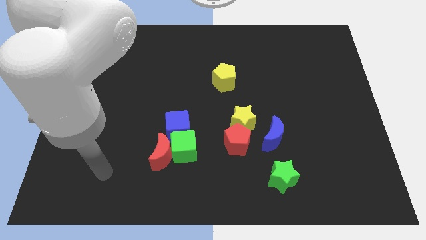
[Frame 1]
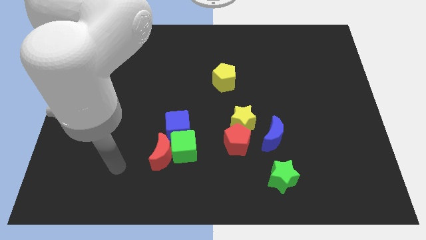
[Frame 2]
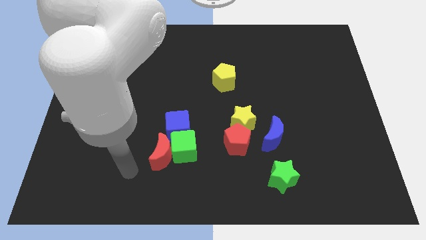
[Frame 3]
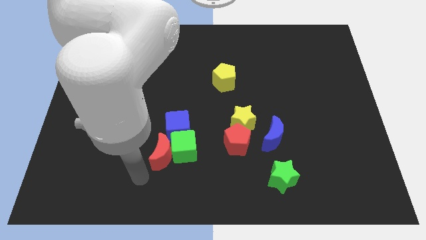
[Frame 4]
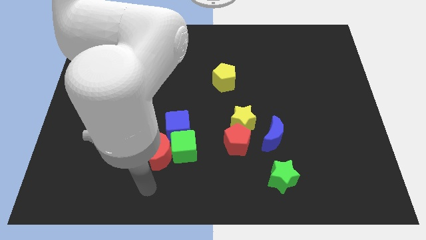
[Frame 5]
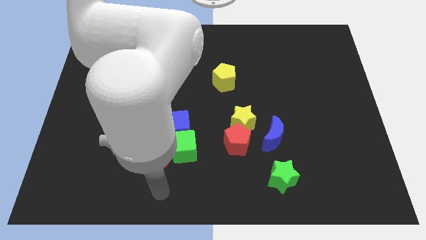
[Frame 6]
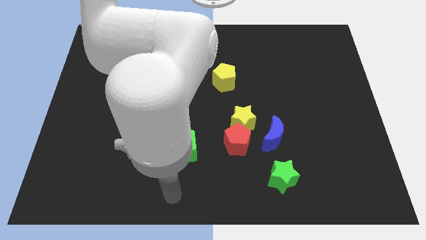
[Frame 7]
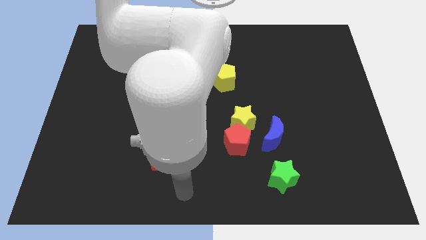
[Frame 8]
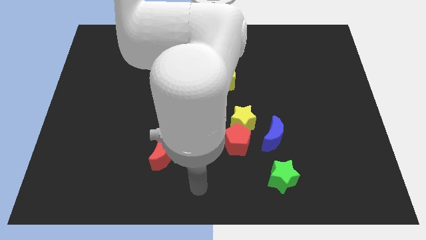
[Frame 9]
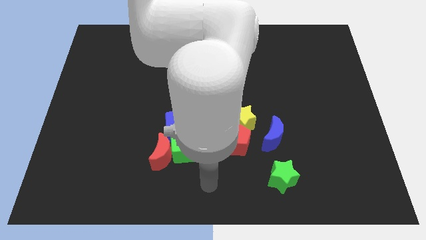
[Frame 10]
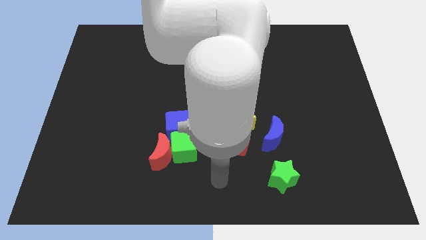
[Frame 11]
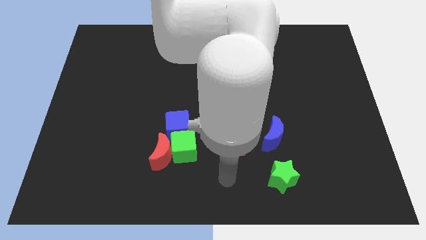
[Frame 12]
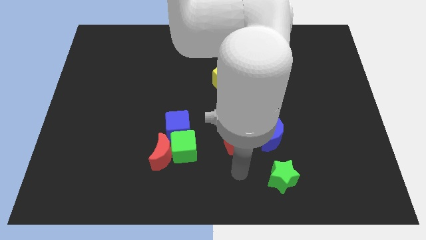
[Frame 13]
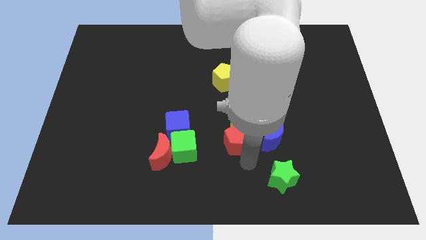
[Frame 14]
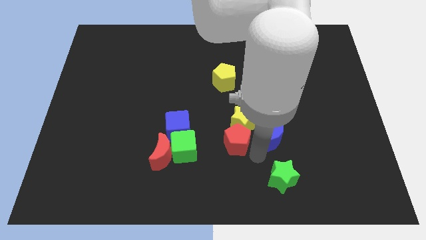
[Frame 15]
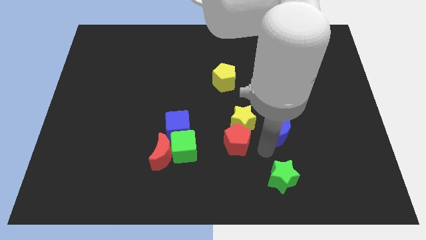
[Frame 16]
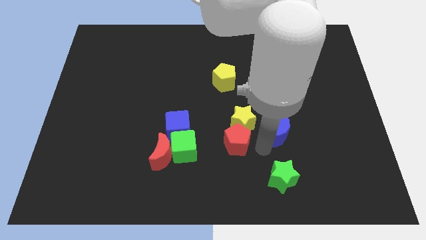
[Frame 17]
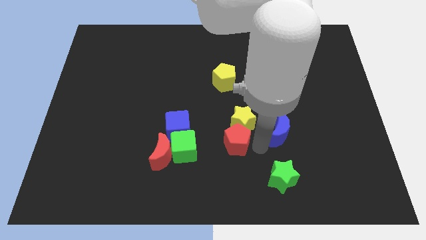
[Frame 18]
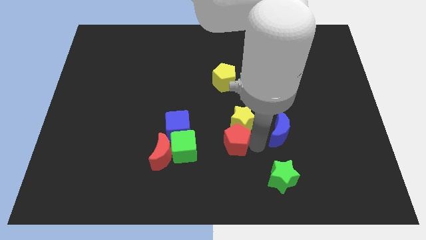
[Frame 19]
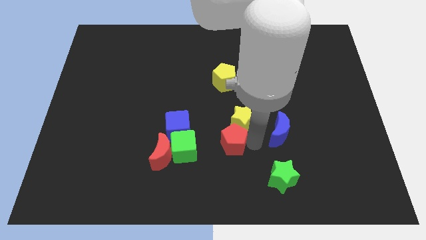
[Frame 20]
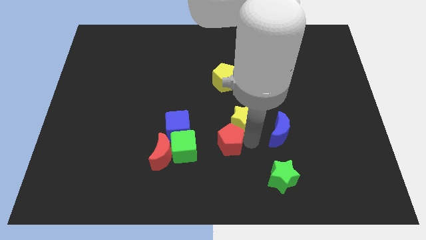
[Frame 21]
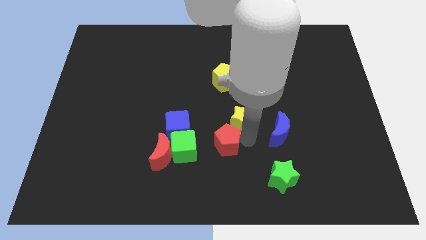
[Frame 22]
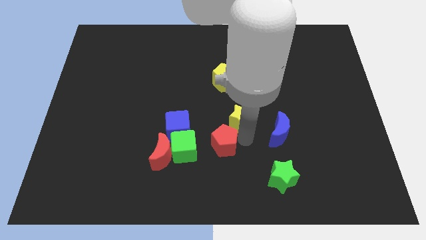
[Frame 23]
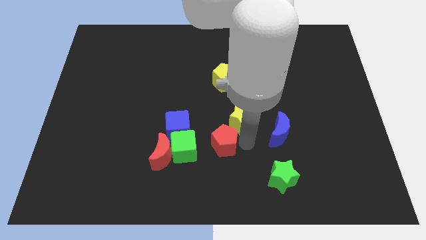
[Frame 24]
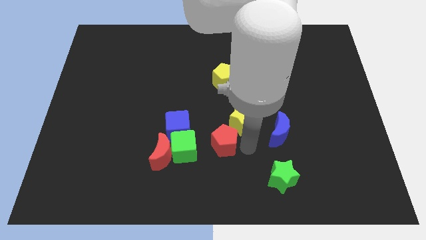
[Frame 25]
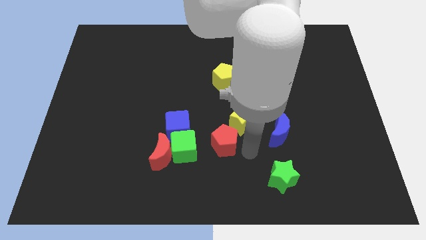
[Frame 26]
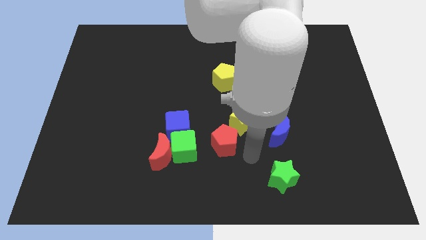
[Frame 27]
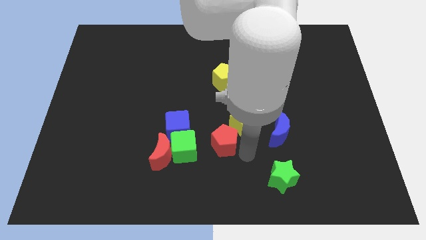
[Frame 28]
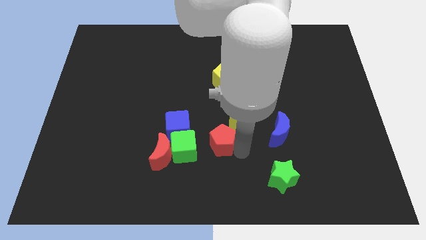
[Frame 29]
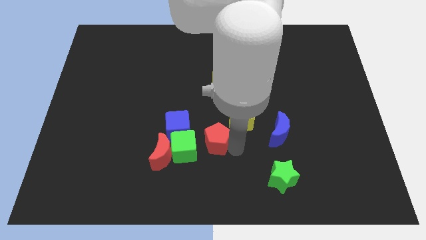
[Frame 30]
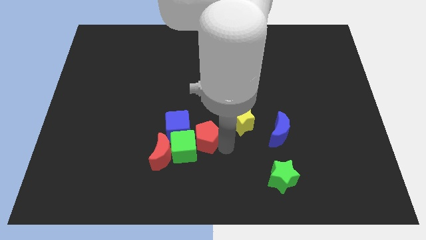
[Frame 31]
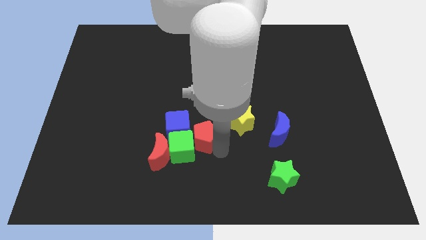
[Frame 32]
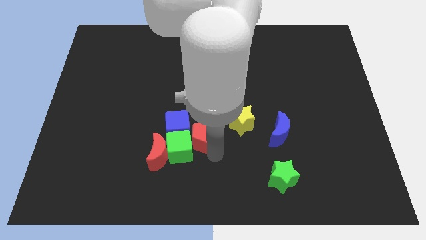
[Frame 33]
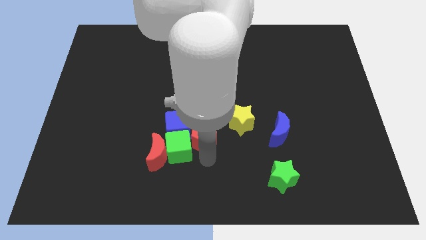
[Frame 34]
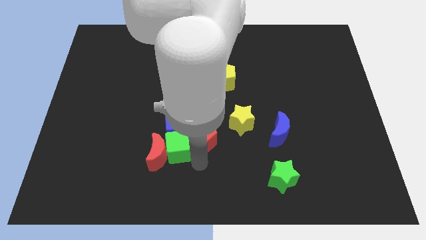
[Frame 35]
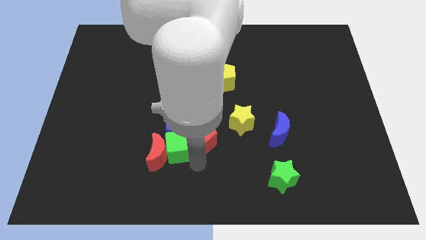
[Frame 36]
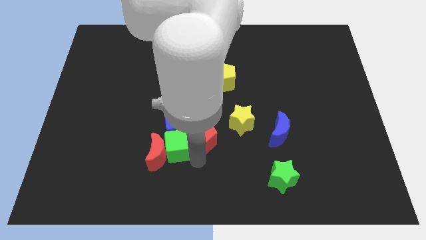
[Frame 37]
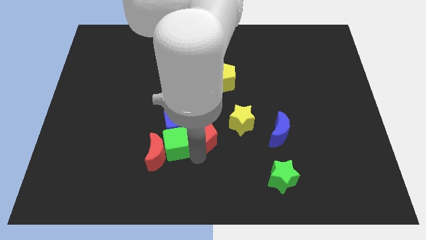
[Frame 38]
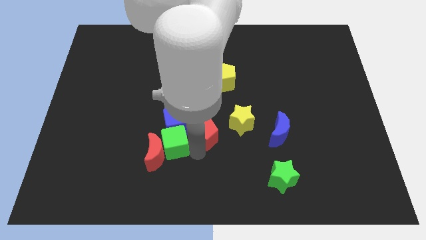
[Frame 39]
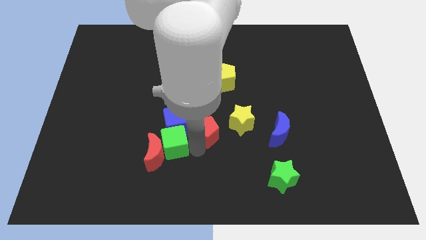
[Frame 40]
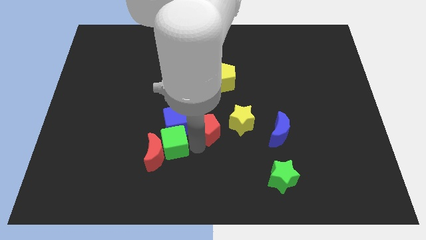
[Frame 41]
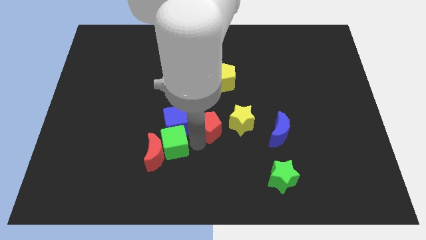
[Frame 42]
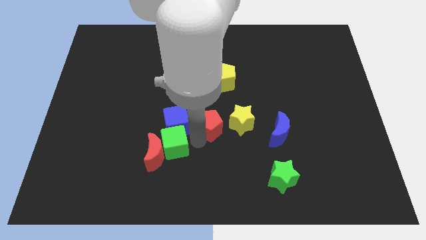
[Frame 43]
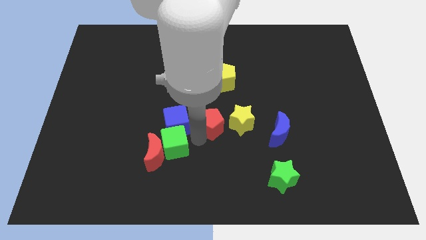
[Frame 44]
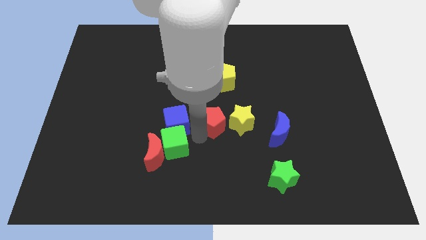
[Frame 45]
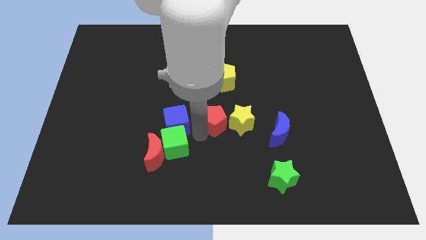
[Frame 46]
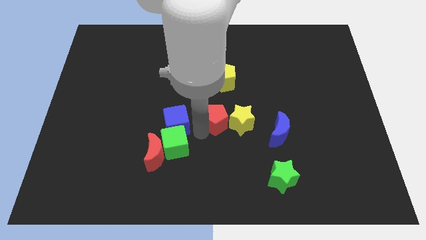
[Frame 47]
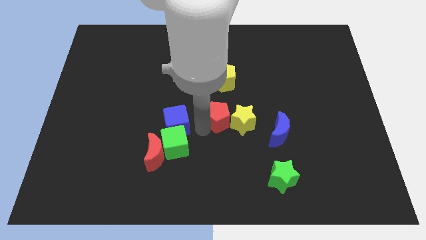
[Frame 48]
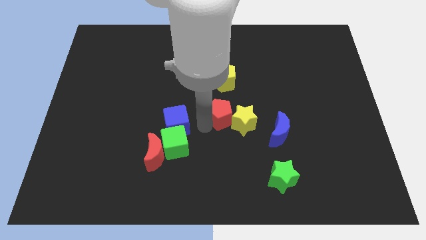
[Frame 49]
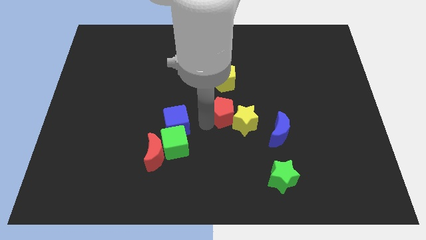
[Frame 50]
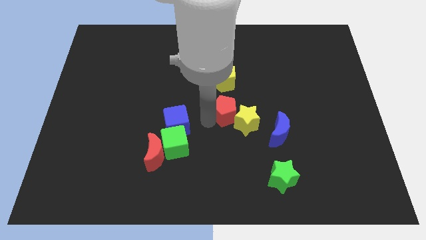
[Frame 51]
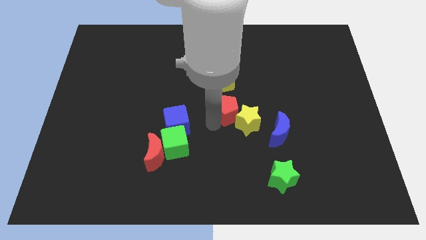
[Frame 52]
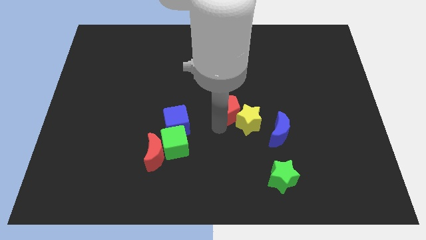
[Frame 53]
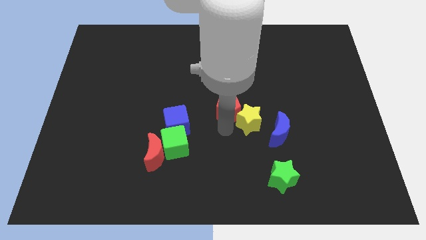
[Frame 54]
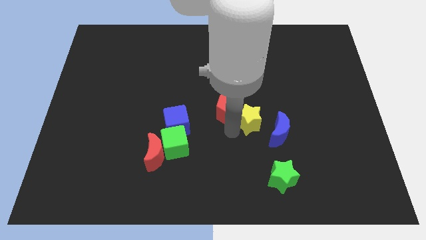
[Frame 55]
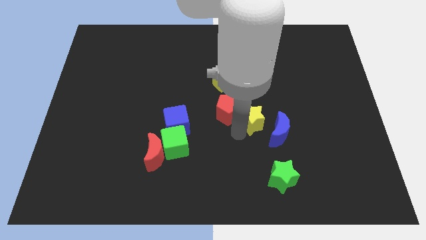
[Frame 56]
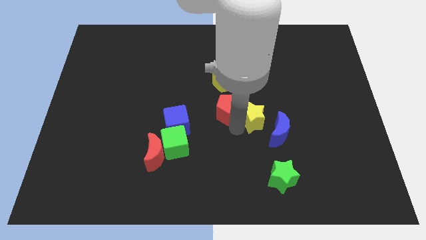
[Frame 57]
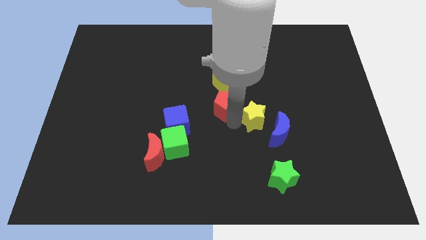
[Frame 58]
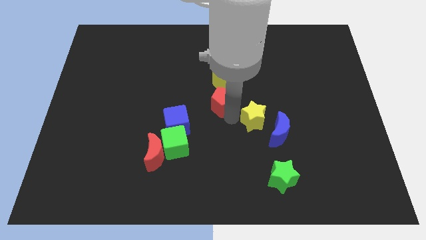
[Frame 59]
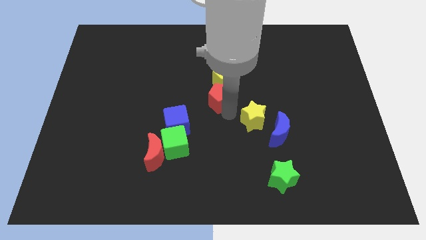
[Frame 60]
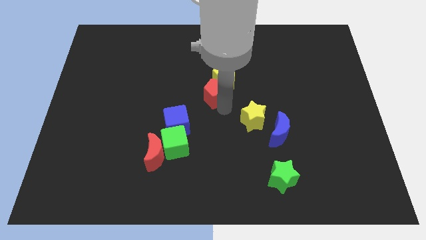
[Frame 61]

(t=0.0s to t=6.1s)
put the red pentagon next to the yellow pentagon
